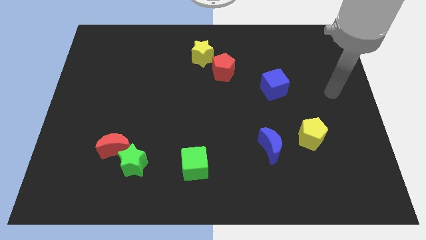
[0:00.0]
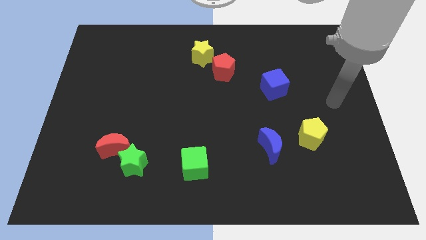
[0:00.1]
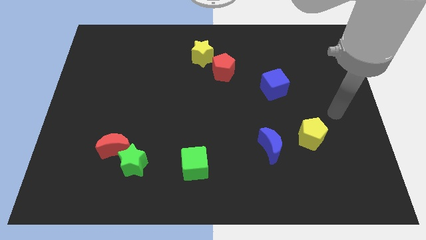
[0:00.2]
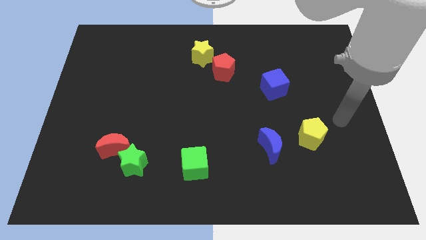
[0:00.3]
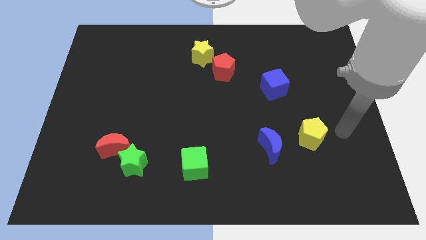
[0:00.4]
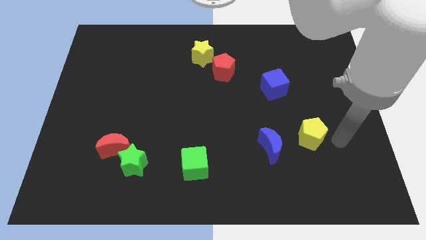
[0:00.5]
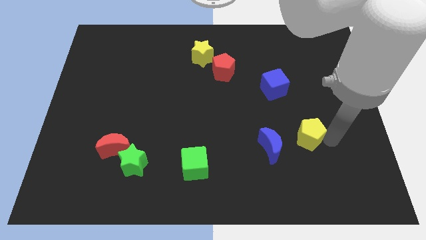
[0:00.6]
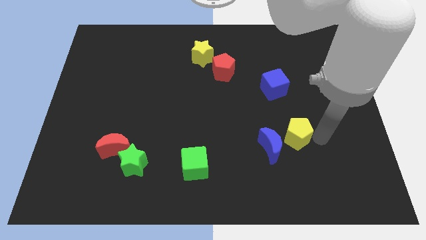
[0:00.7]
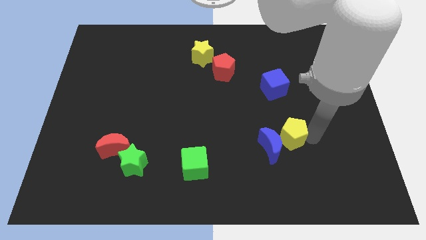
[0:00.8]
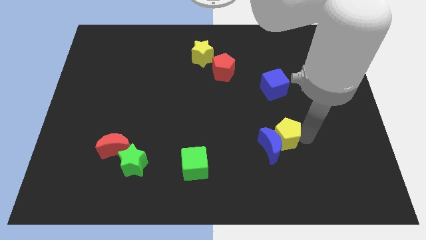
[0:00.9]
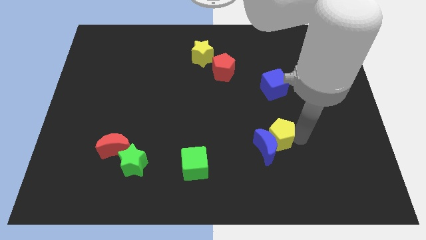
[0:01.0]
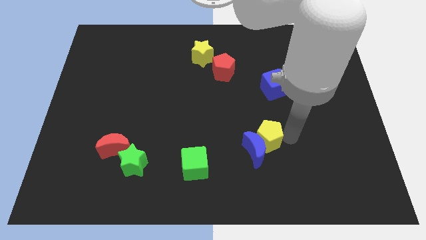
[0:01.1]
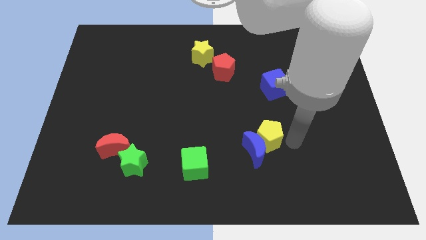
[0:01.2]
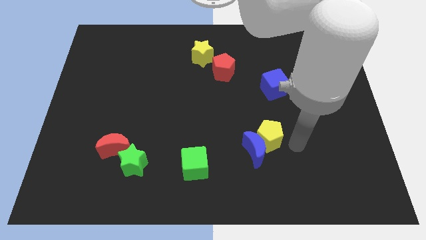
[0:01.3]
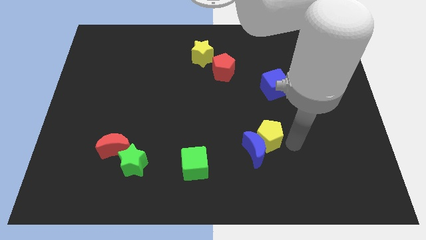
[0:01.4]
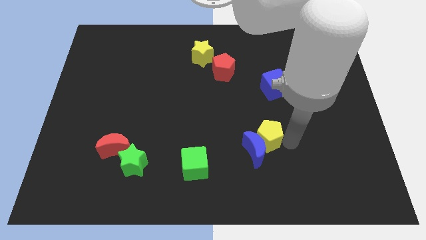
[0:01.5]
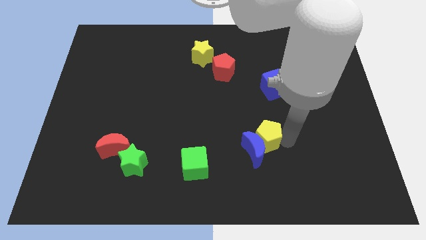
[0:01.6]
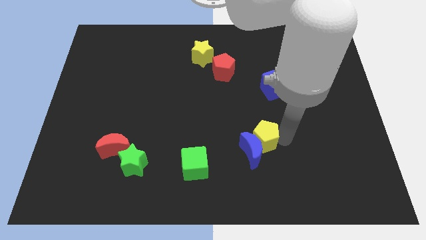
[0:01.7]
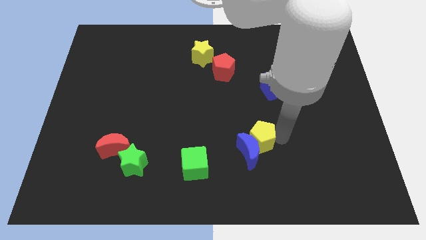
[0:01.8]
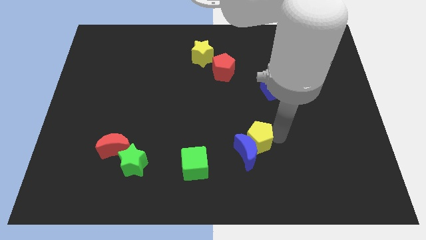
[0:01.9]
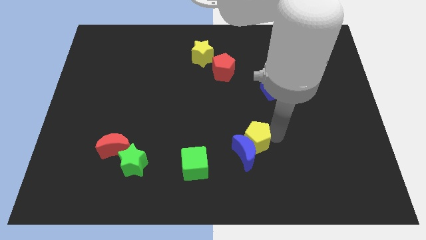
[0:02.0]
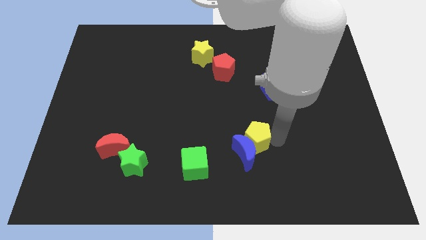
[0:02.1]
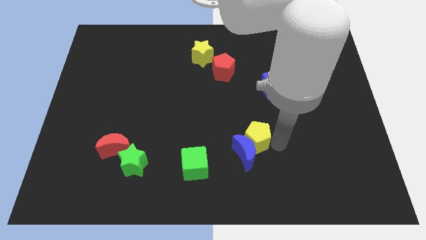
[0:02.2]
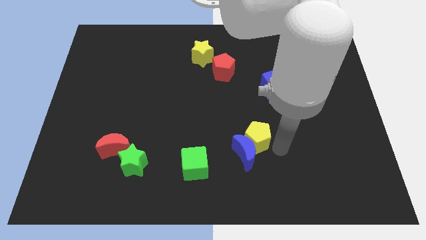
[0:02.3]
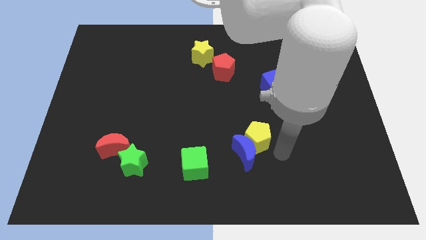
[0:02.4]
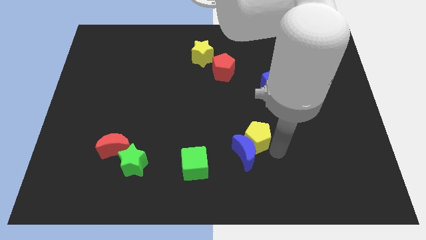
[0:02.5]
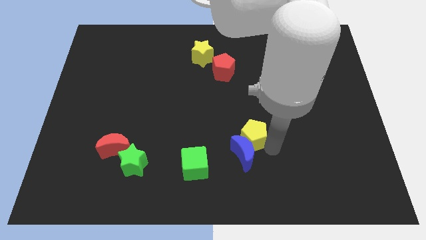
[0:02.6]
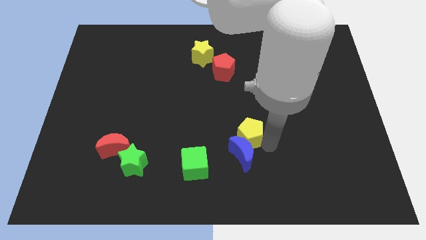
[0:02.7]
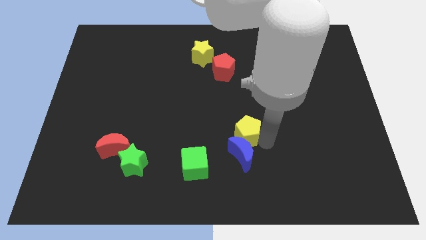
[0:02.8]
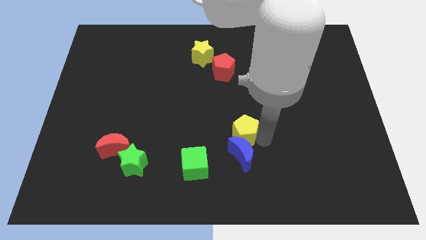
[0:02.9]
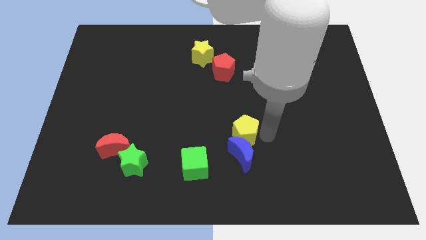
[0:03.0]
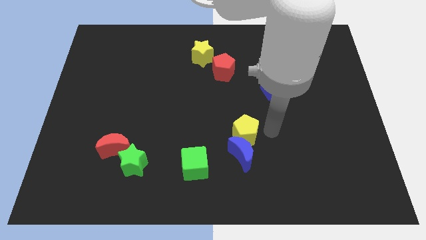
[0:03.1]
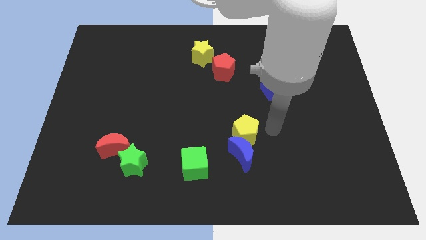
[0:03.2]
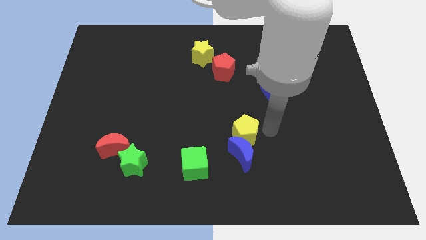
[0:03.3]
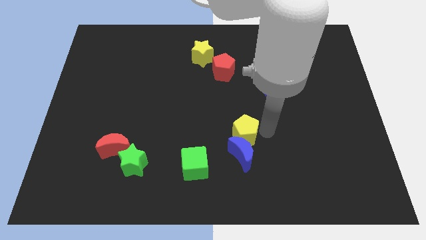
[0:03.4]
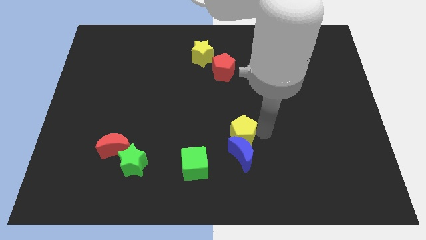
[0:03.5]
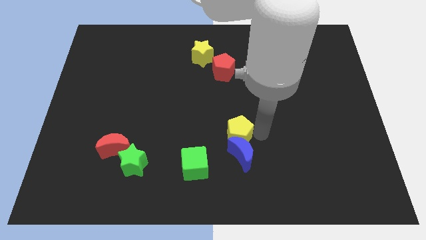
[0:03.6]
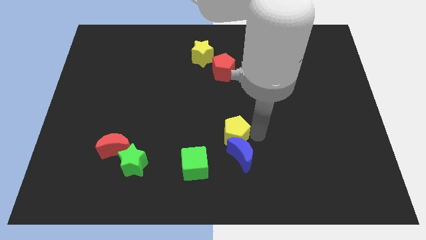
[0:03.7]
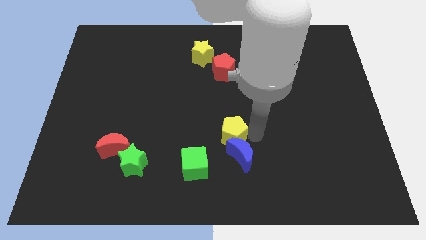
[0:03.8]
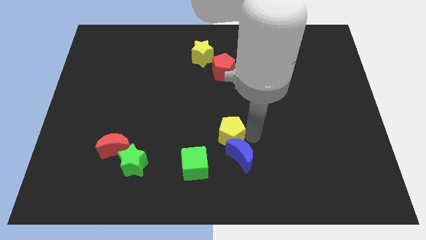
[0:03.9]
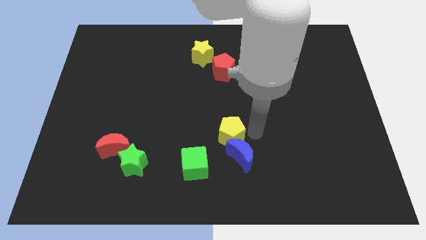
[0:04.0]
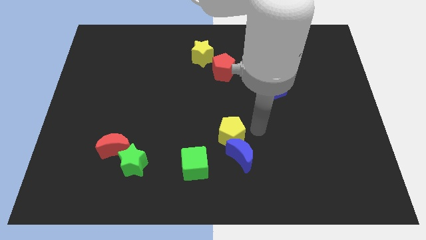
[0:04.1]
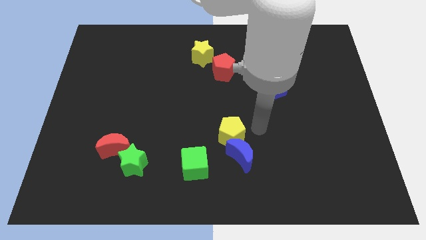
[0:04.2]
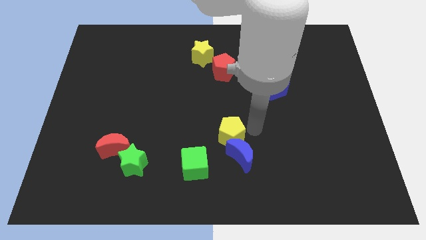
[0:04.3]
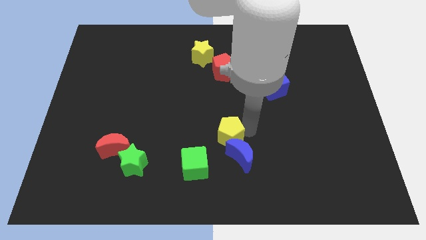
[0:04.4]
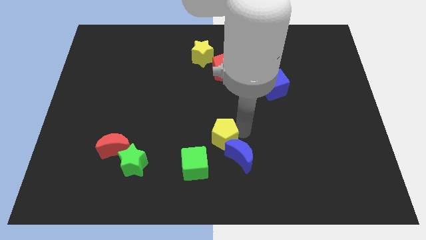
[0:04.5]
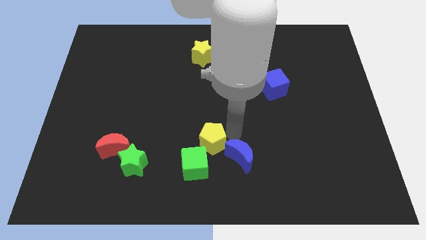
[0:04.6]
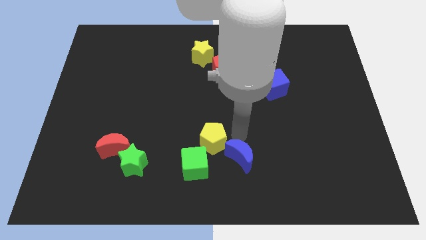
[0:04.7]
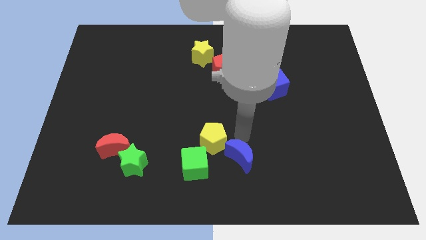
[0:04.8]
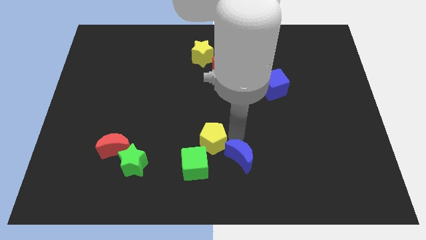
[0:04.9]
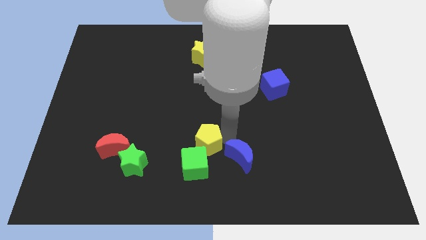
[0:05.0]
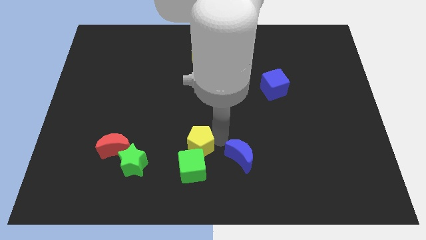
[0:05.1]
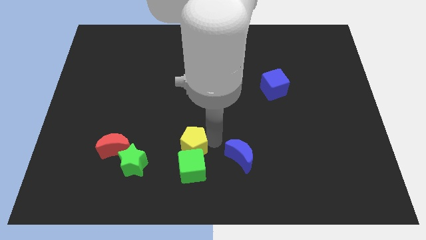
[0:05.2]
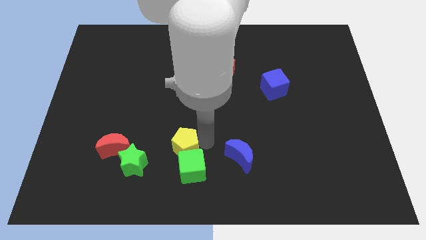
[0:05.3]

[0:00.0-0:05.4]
move the yellow pentagon right of the red moon

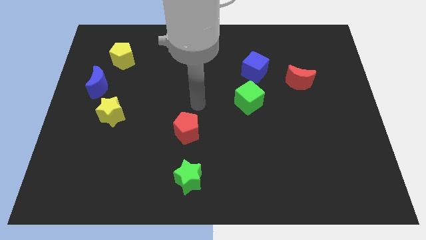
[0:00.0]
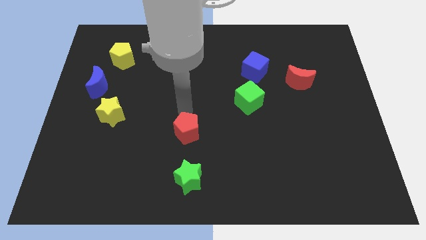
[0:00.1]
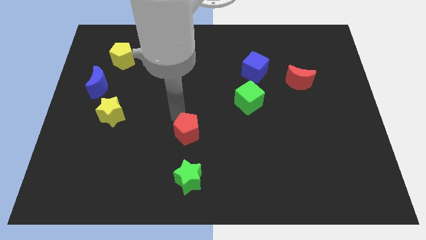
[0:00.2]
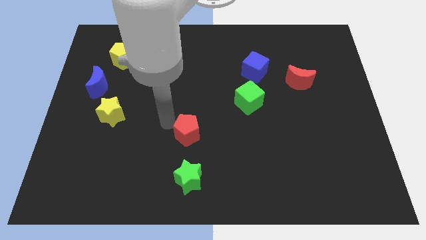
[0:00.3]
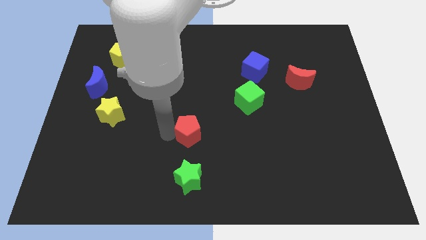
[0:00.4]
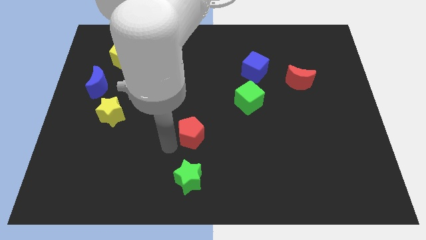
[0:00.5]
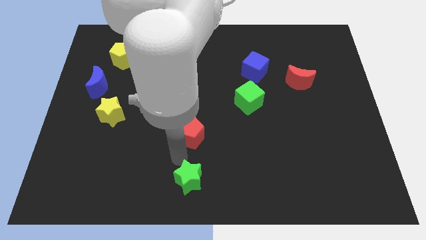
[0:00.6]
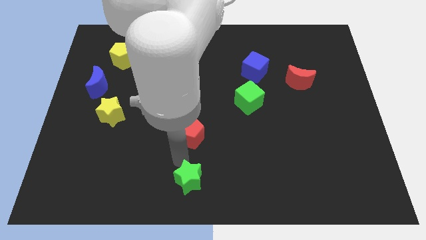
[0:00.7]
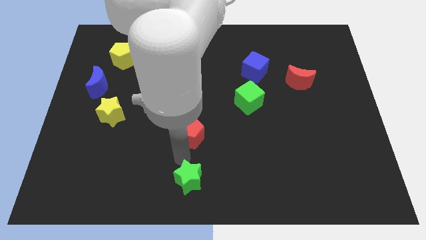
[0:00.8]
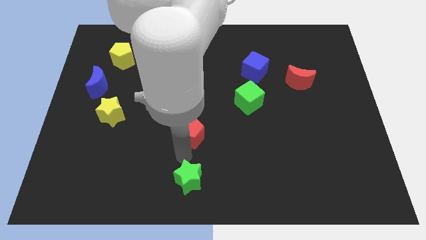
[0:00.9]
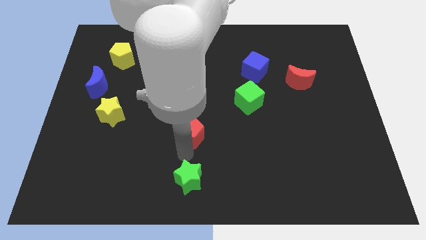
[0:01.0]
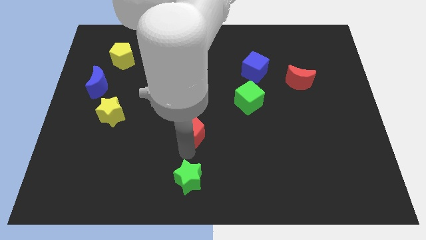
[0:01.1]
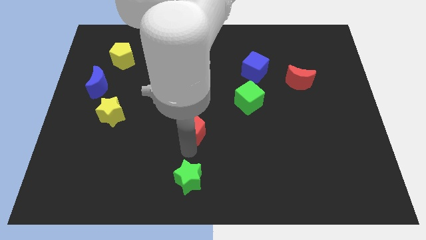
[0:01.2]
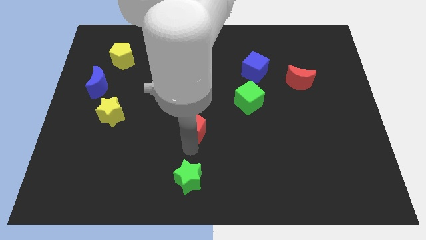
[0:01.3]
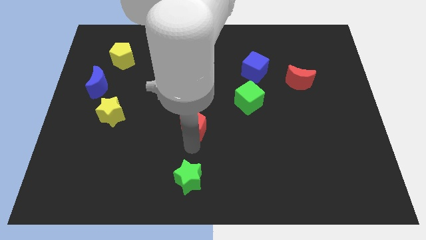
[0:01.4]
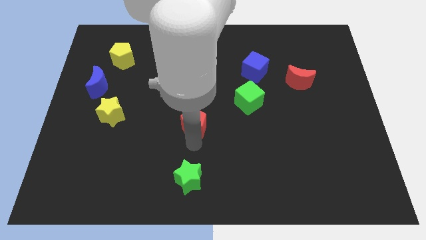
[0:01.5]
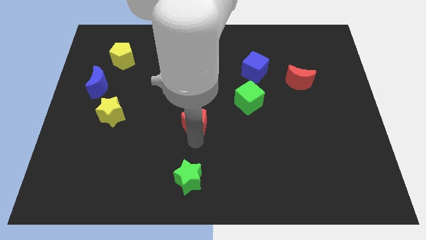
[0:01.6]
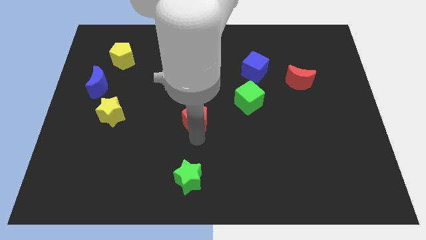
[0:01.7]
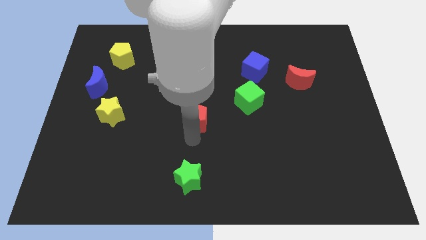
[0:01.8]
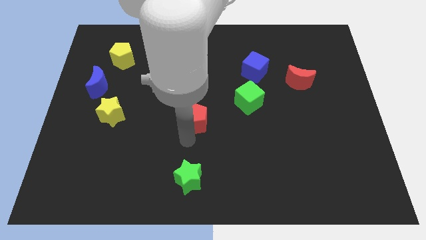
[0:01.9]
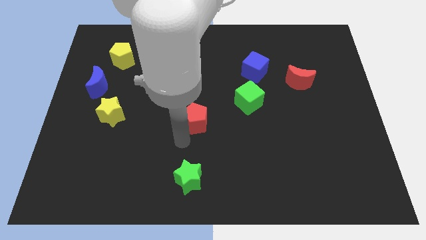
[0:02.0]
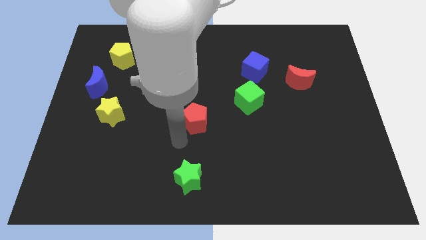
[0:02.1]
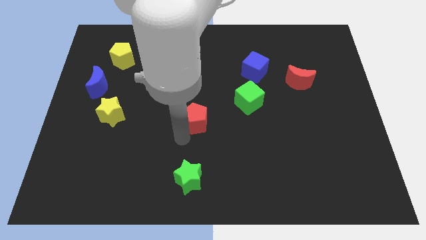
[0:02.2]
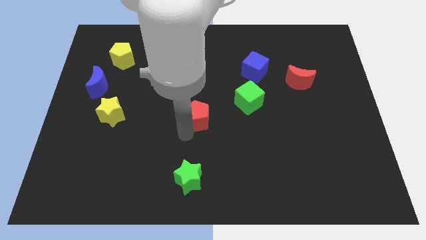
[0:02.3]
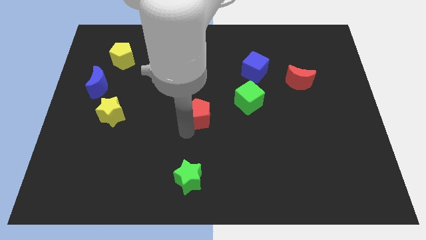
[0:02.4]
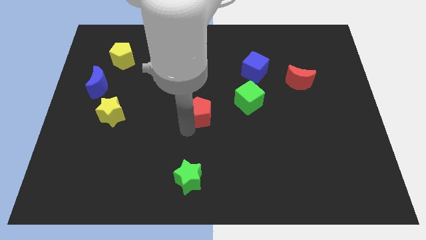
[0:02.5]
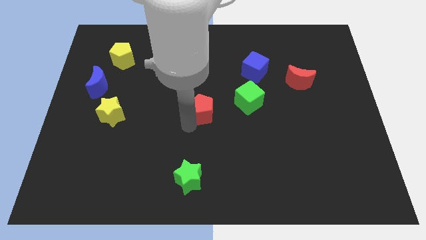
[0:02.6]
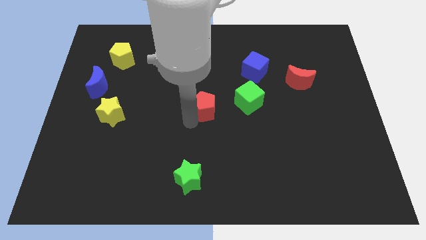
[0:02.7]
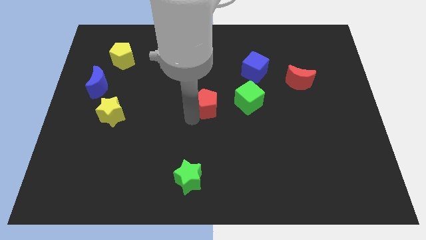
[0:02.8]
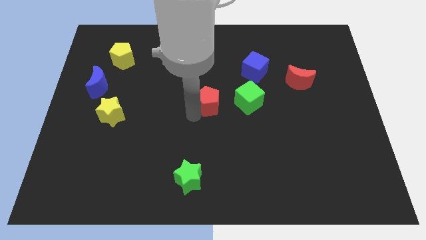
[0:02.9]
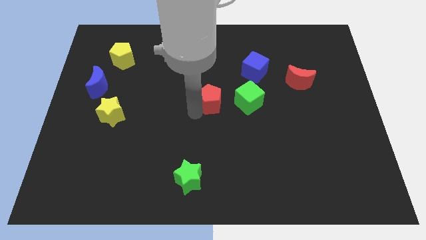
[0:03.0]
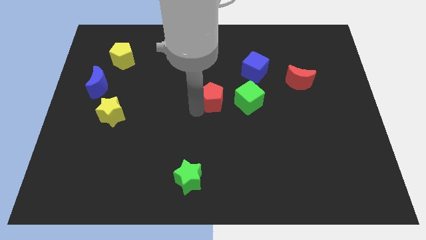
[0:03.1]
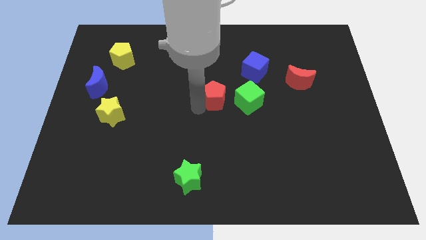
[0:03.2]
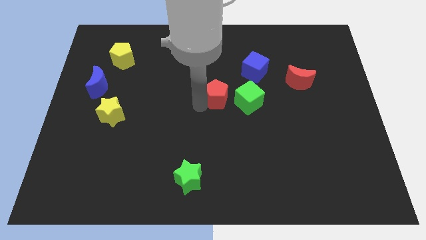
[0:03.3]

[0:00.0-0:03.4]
put the red pentagon diagonally up and to the left of the green cube
